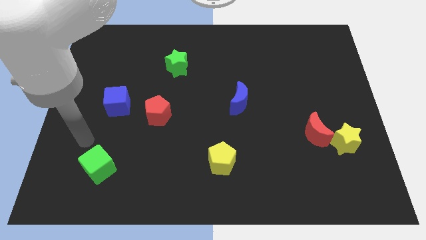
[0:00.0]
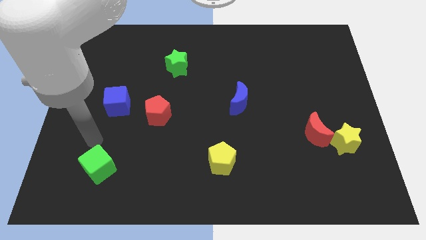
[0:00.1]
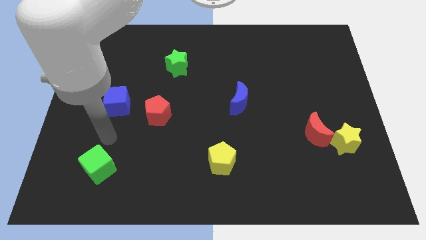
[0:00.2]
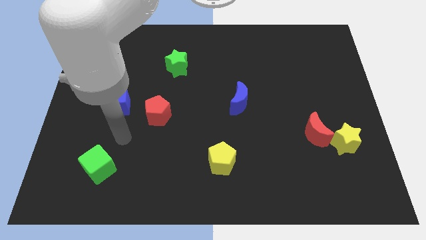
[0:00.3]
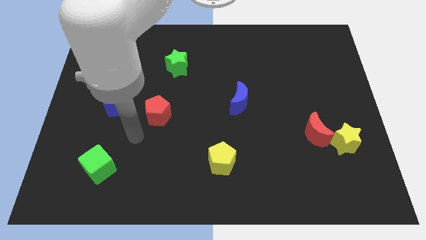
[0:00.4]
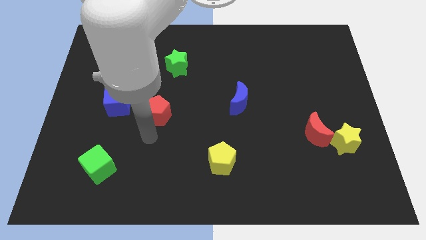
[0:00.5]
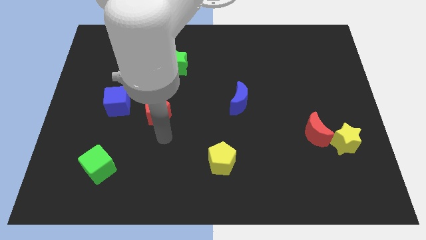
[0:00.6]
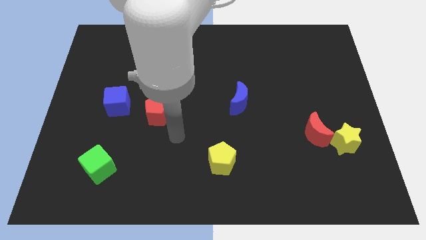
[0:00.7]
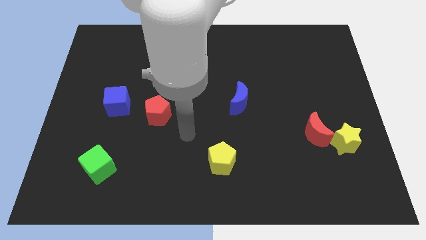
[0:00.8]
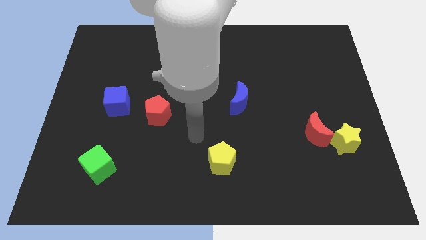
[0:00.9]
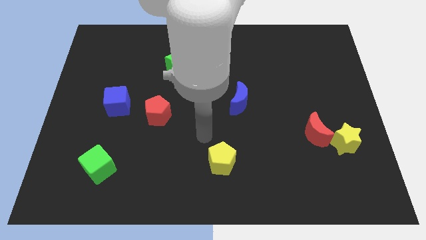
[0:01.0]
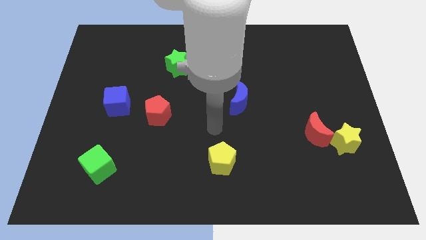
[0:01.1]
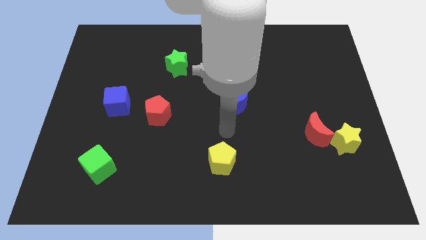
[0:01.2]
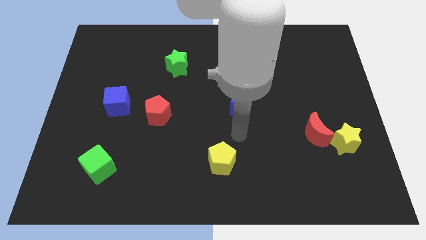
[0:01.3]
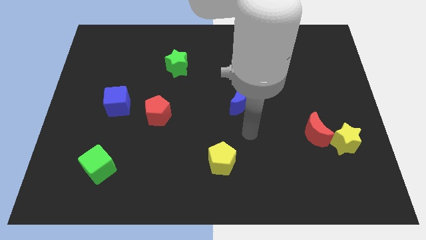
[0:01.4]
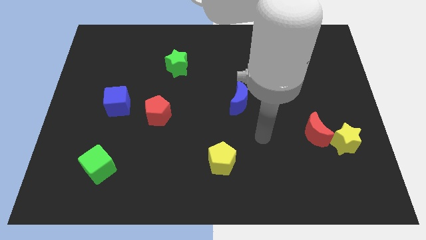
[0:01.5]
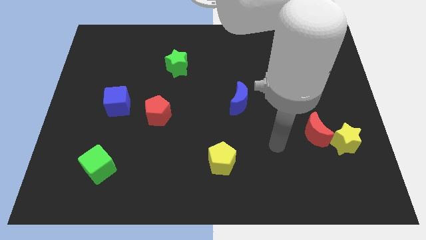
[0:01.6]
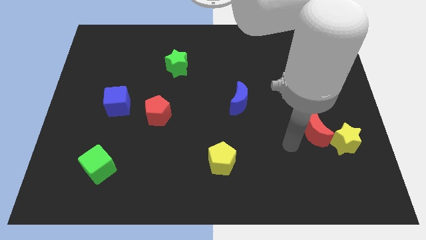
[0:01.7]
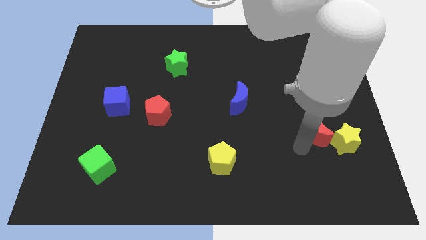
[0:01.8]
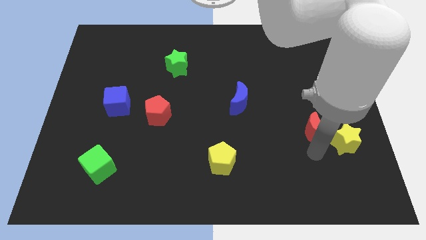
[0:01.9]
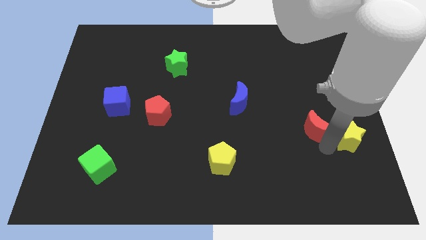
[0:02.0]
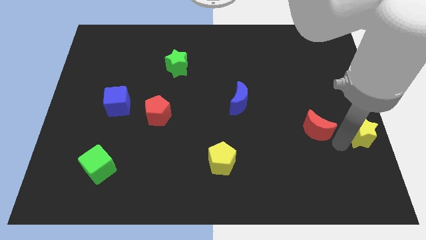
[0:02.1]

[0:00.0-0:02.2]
pull the red moon apart from the yellow star

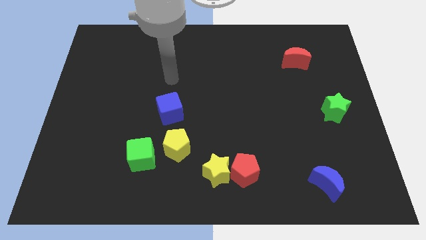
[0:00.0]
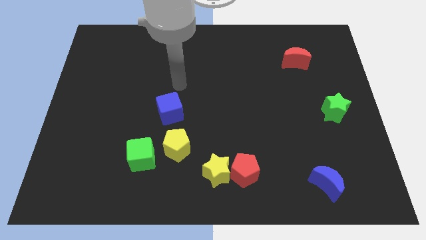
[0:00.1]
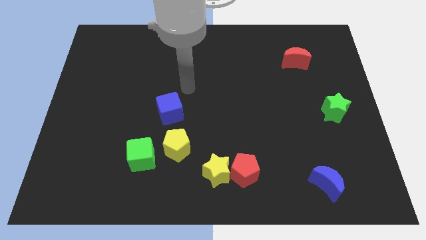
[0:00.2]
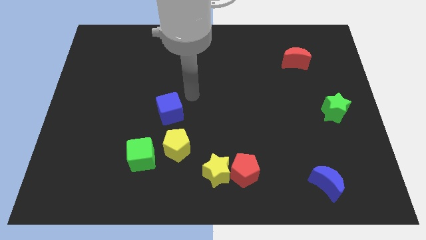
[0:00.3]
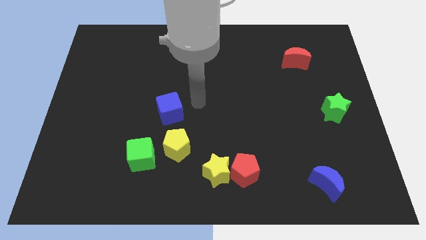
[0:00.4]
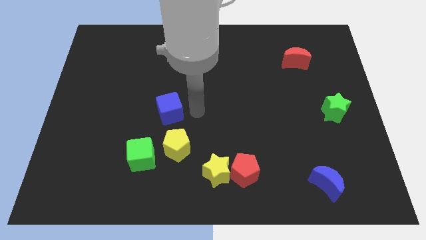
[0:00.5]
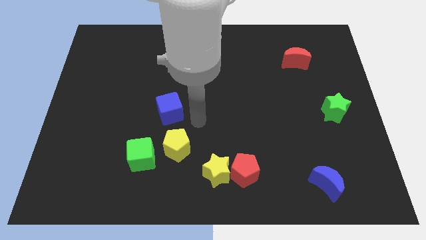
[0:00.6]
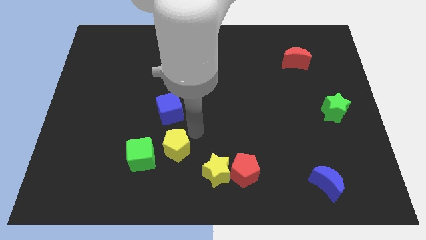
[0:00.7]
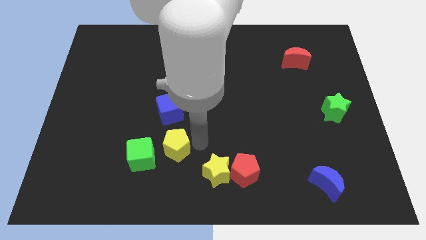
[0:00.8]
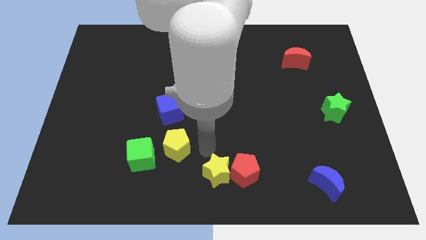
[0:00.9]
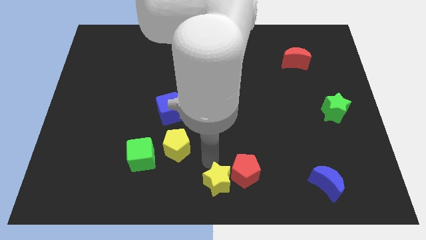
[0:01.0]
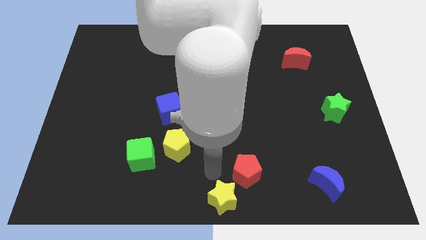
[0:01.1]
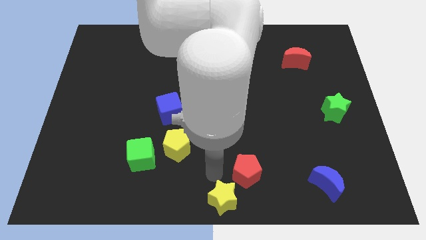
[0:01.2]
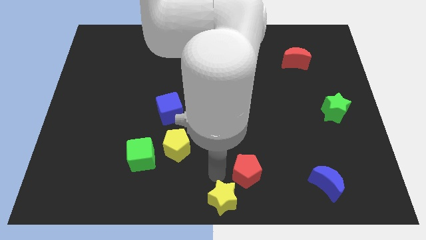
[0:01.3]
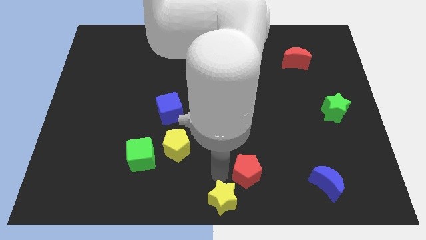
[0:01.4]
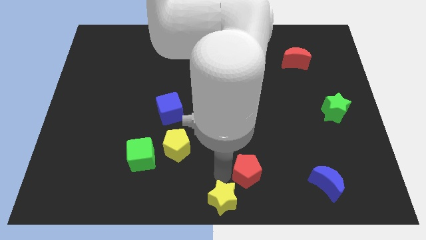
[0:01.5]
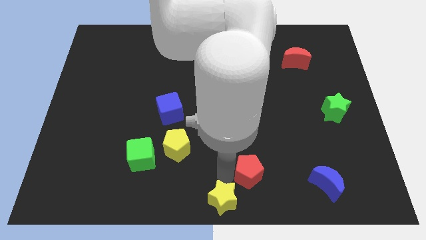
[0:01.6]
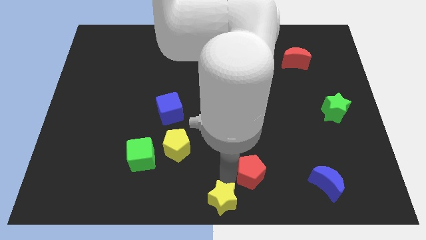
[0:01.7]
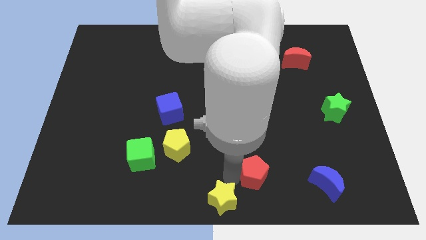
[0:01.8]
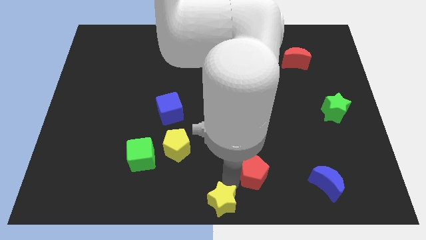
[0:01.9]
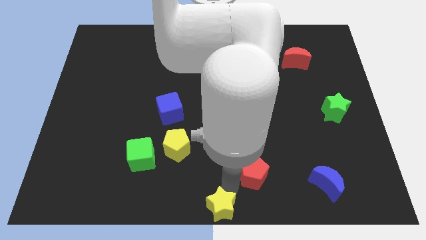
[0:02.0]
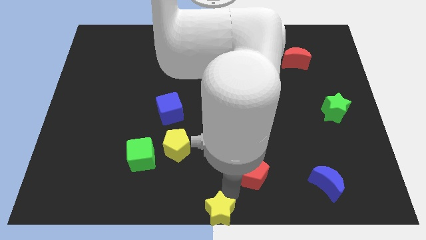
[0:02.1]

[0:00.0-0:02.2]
separate the red pentagon from the yellow star

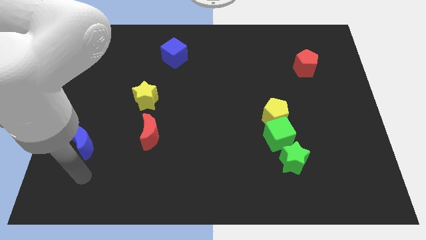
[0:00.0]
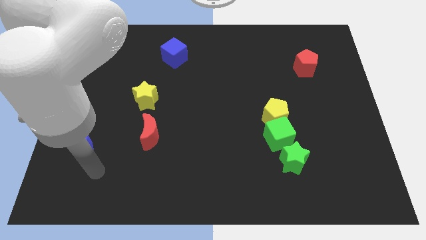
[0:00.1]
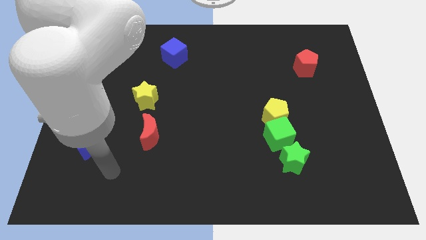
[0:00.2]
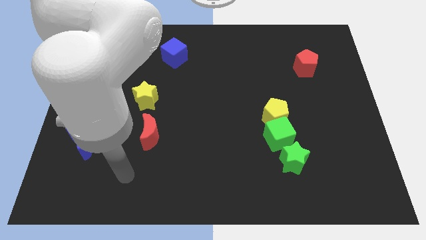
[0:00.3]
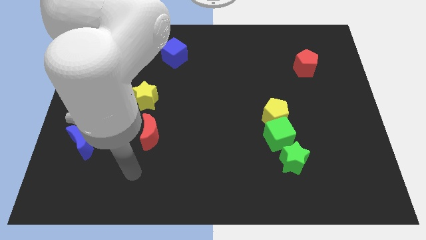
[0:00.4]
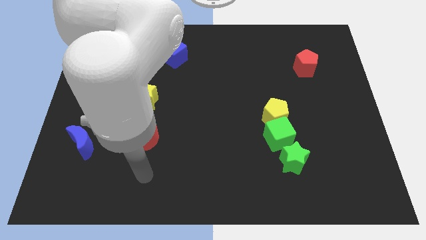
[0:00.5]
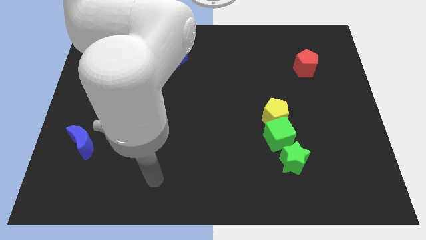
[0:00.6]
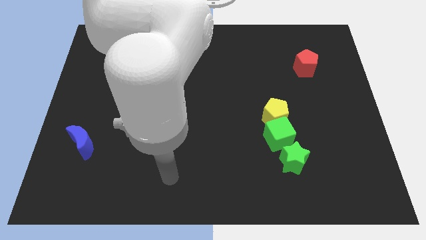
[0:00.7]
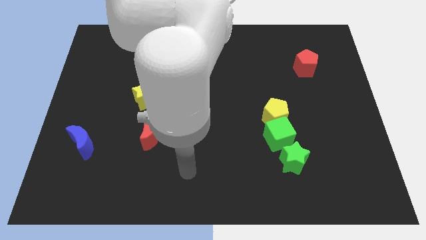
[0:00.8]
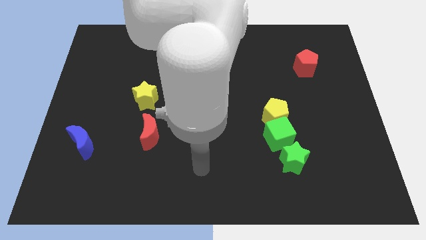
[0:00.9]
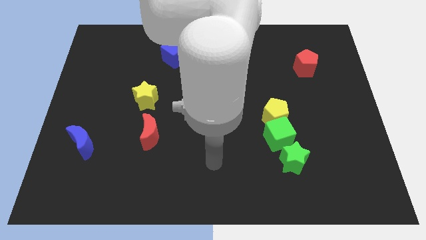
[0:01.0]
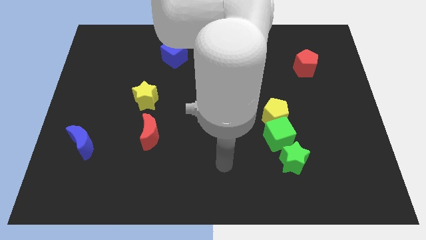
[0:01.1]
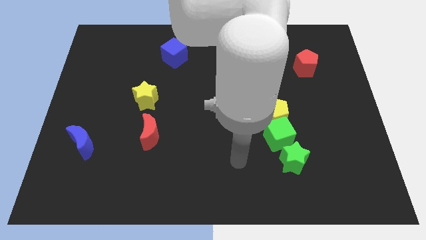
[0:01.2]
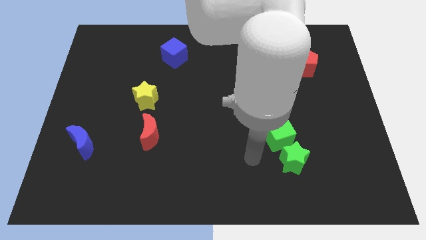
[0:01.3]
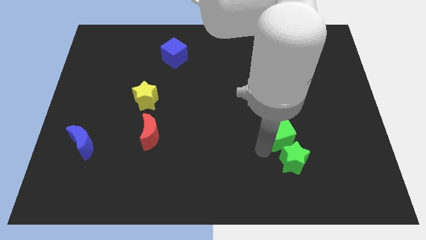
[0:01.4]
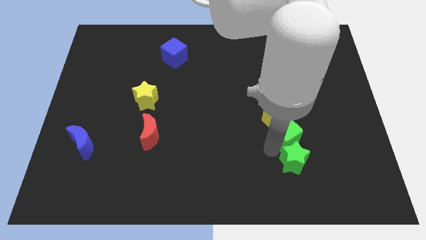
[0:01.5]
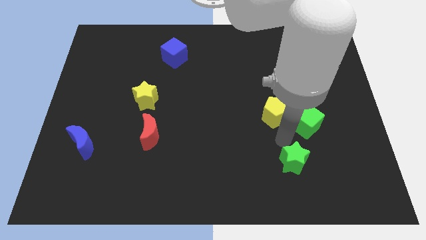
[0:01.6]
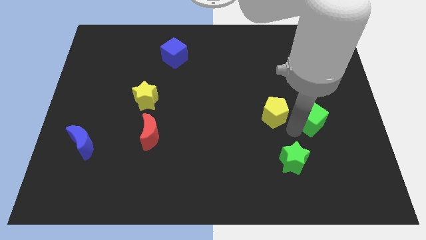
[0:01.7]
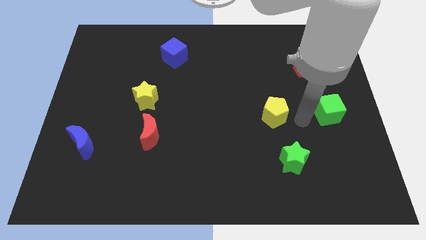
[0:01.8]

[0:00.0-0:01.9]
separate the yellow pentagon from the green cube

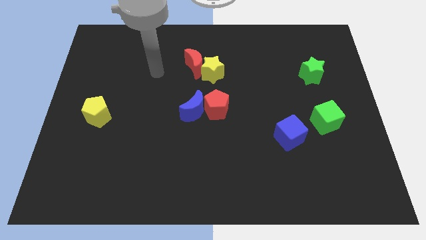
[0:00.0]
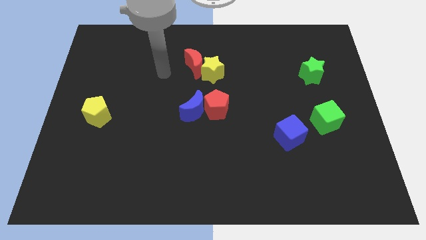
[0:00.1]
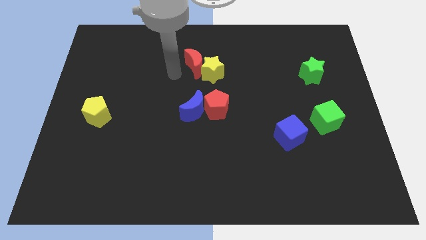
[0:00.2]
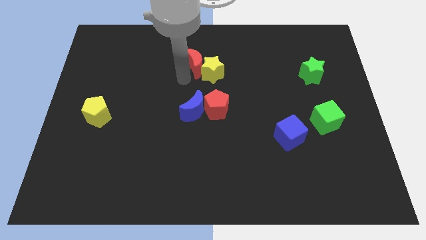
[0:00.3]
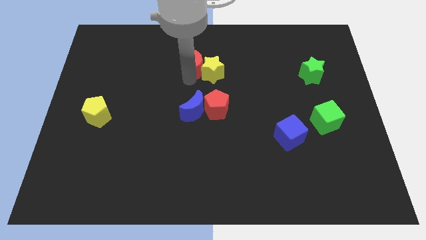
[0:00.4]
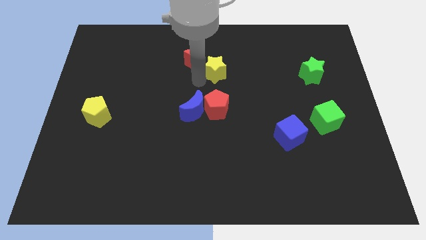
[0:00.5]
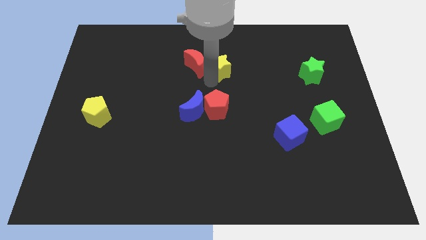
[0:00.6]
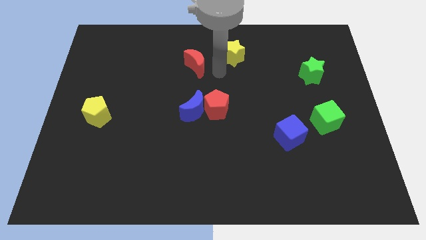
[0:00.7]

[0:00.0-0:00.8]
move the red moon away from the yellow star

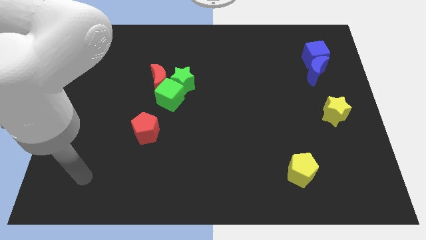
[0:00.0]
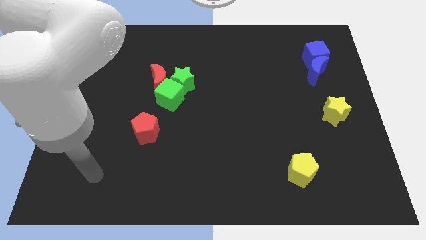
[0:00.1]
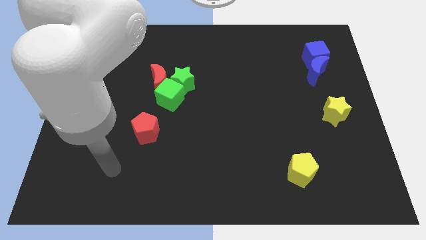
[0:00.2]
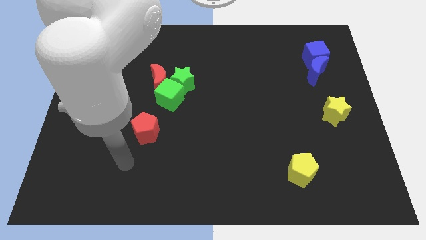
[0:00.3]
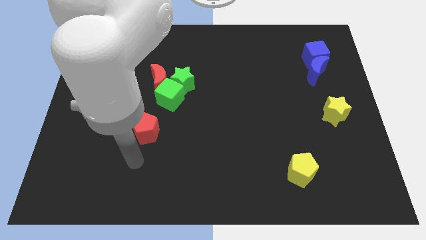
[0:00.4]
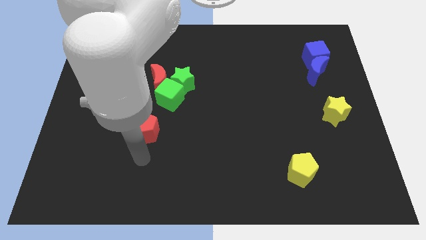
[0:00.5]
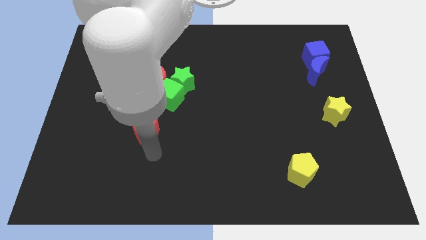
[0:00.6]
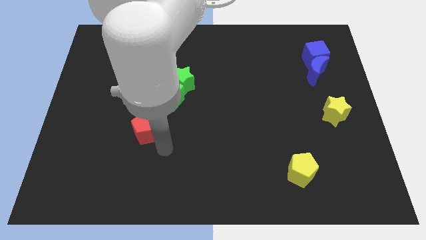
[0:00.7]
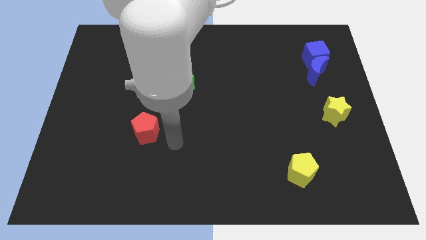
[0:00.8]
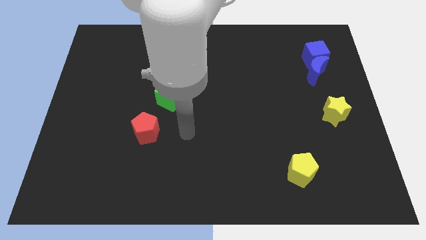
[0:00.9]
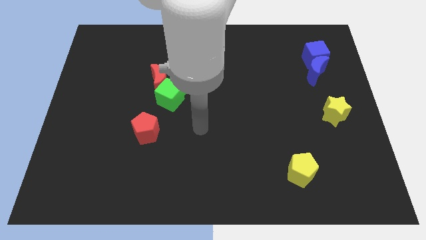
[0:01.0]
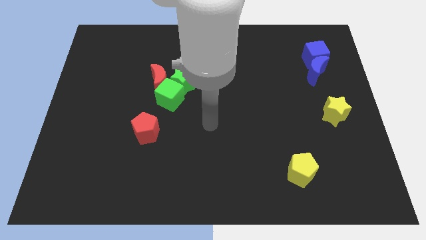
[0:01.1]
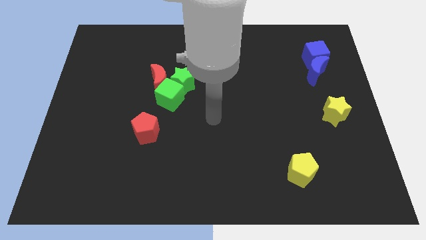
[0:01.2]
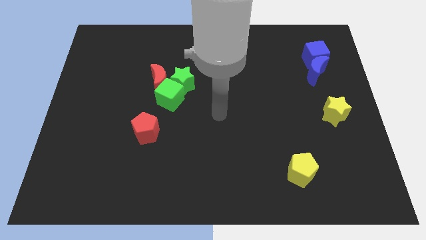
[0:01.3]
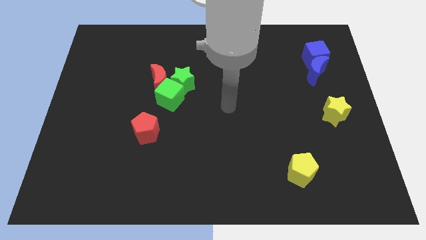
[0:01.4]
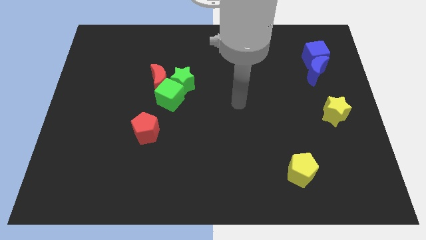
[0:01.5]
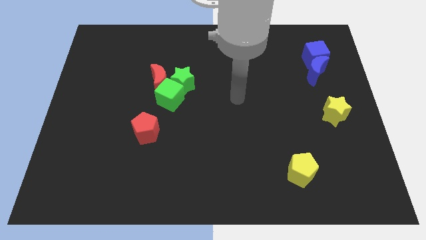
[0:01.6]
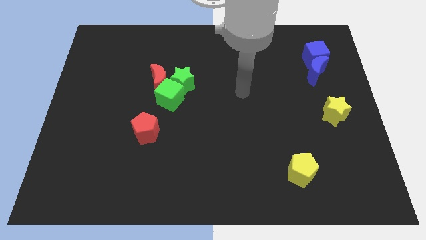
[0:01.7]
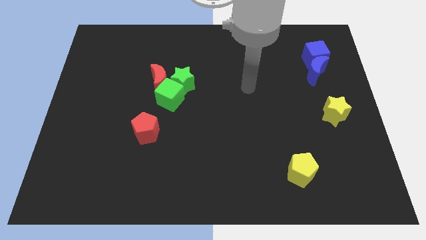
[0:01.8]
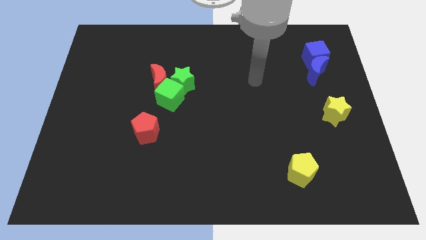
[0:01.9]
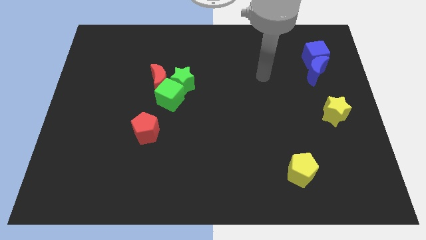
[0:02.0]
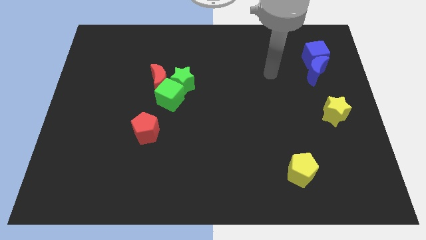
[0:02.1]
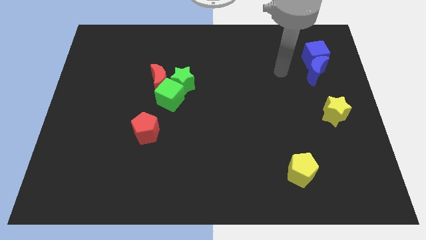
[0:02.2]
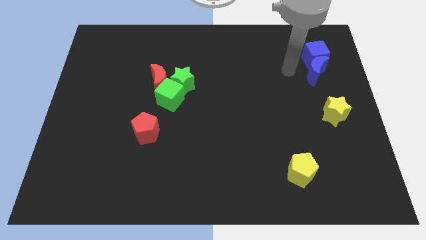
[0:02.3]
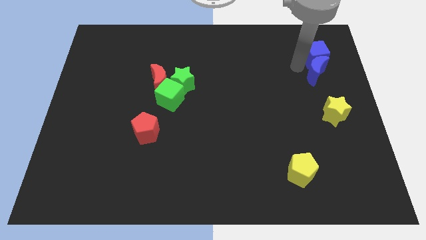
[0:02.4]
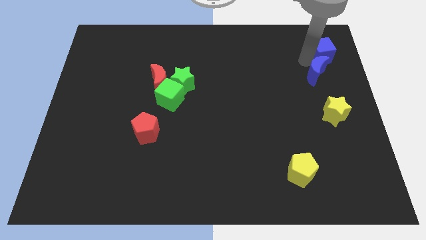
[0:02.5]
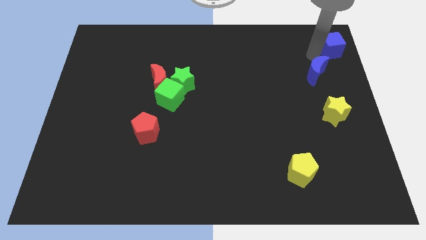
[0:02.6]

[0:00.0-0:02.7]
separate the blue moon from the blue cube
